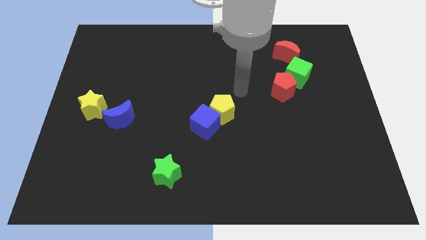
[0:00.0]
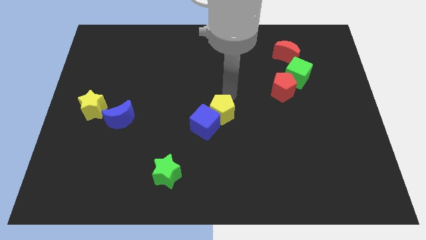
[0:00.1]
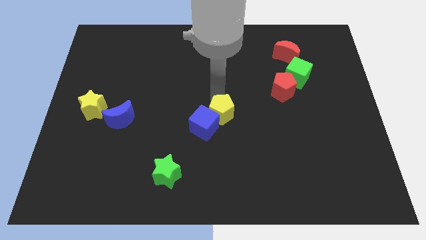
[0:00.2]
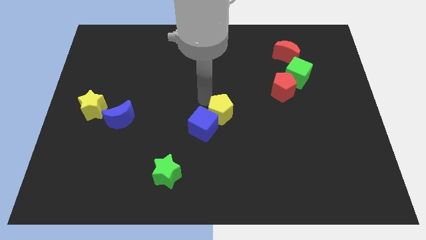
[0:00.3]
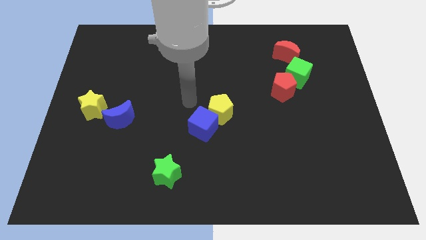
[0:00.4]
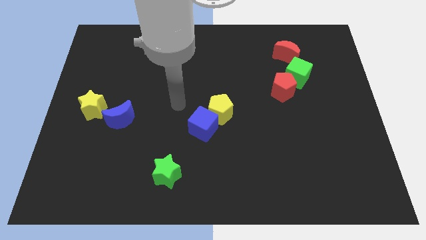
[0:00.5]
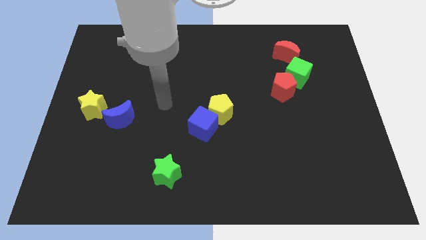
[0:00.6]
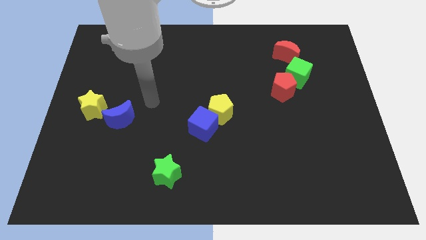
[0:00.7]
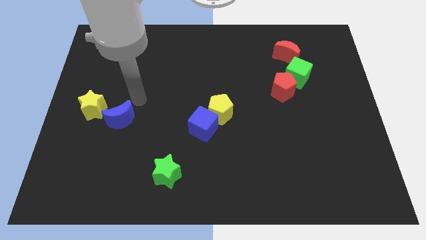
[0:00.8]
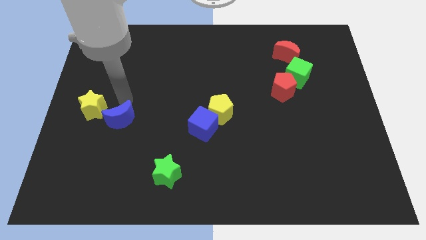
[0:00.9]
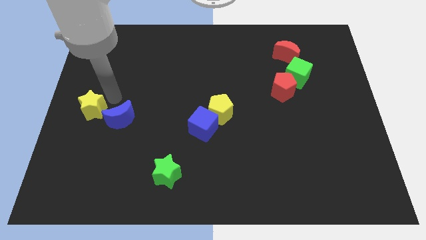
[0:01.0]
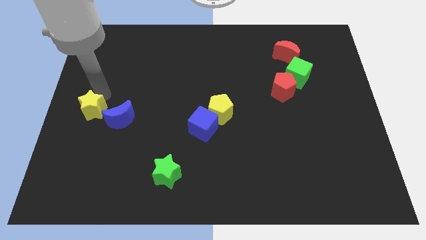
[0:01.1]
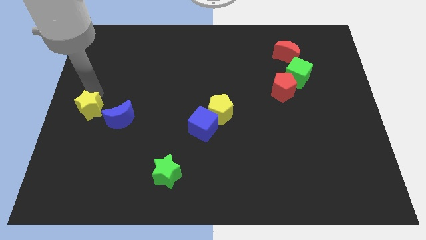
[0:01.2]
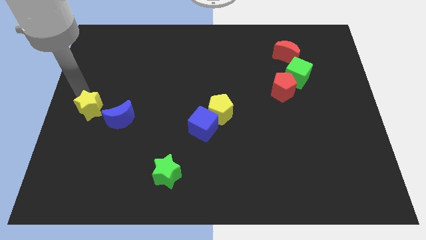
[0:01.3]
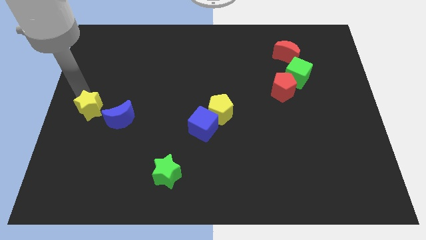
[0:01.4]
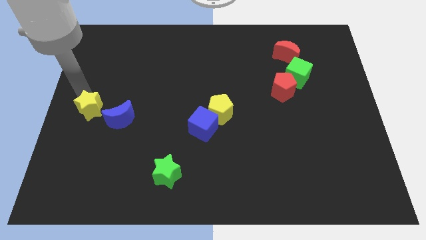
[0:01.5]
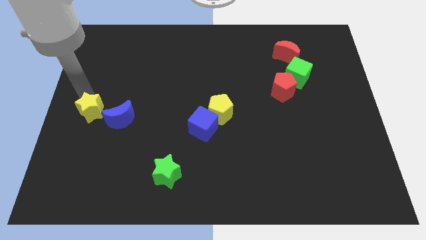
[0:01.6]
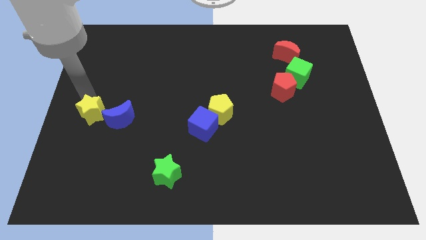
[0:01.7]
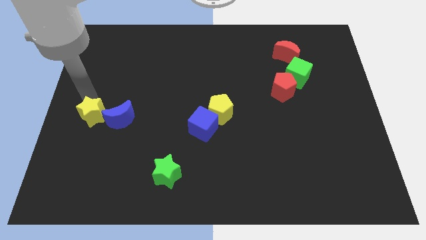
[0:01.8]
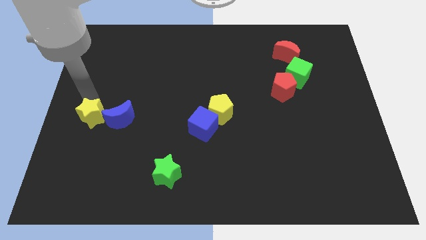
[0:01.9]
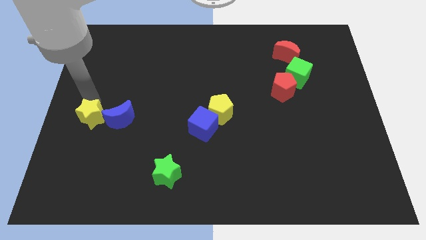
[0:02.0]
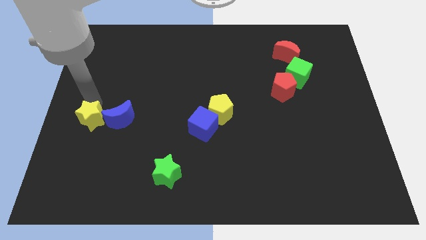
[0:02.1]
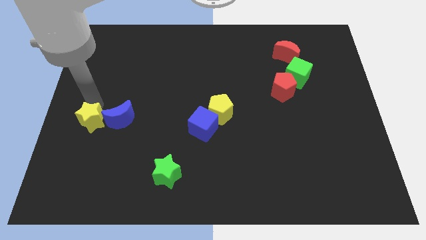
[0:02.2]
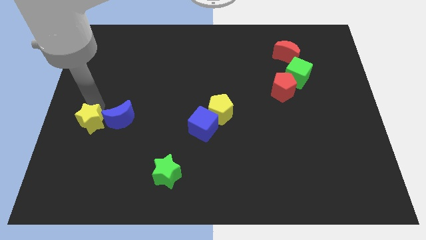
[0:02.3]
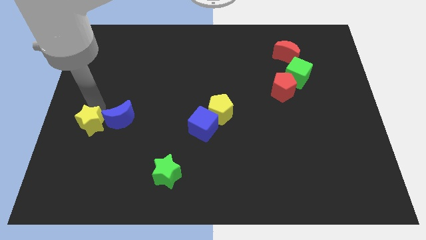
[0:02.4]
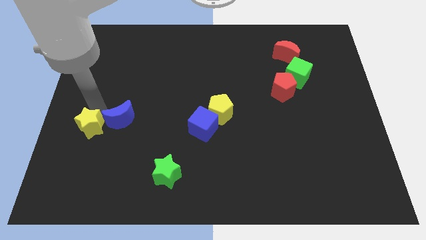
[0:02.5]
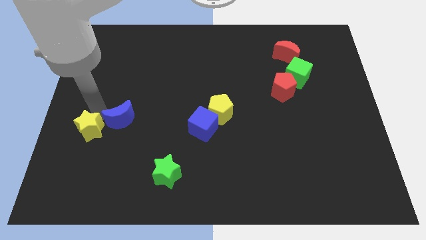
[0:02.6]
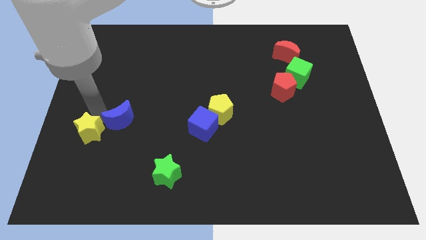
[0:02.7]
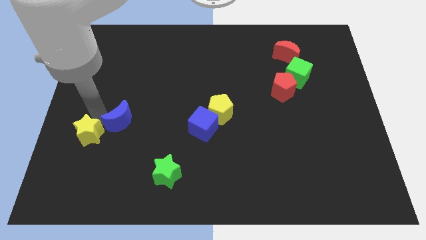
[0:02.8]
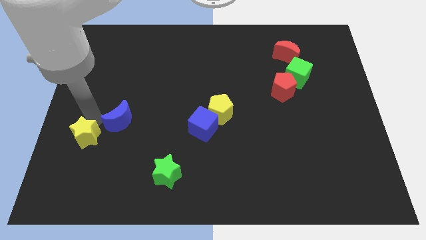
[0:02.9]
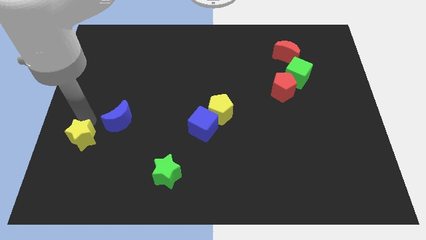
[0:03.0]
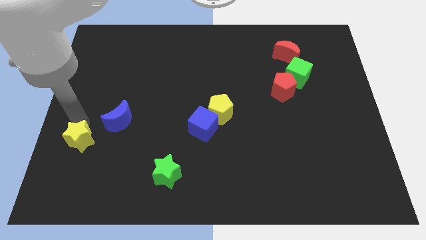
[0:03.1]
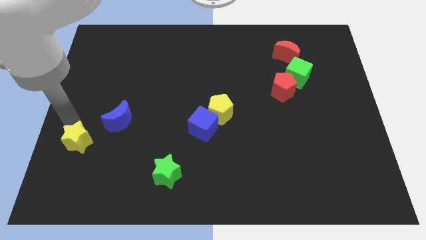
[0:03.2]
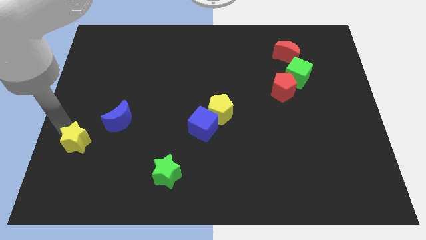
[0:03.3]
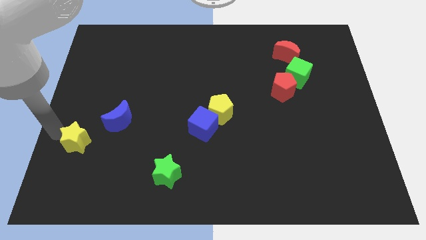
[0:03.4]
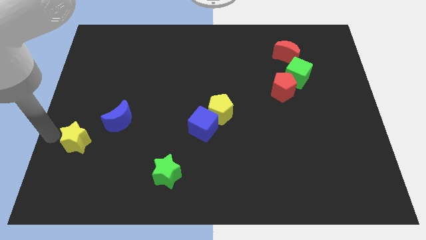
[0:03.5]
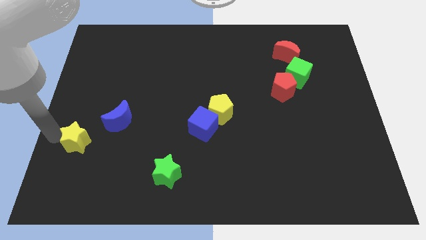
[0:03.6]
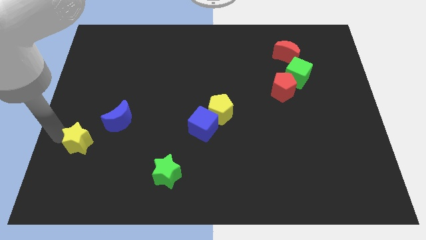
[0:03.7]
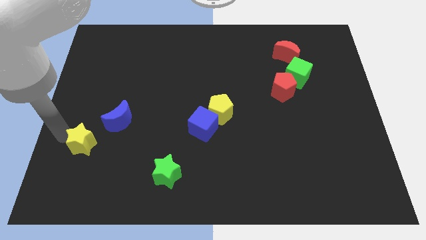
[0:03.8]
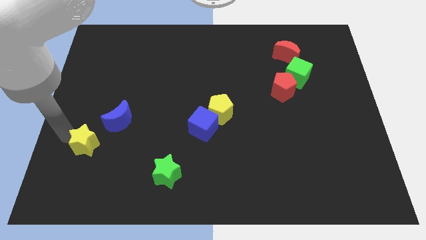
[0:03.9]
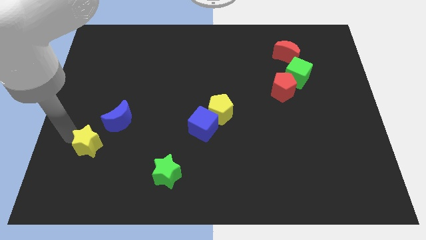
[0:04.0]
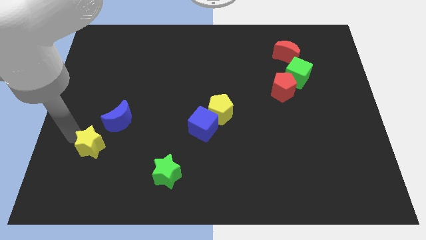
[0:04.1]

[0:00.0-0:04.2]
move the yellow star slightly down and right diagonally

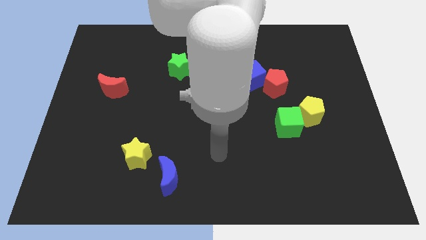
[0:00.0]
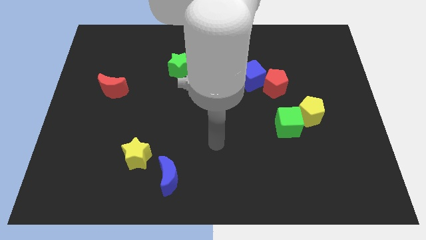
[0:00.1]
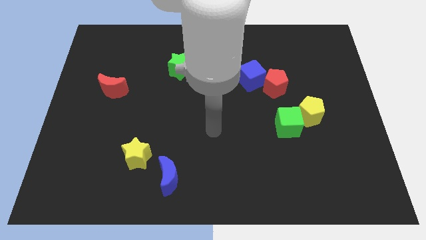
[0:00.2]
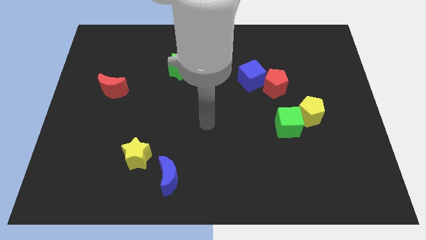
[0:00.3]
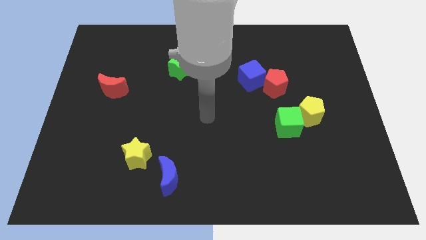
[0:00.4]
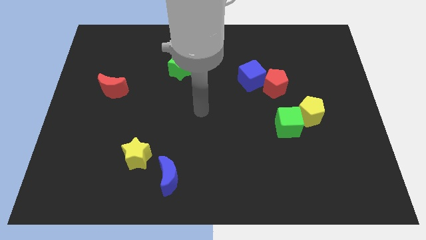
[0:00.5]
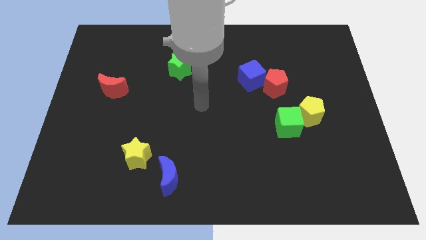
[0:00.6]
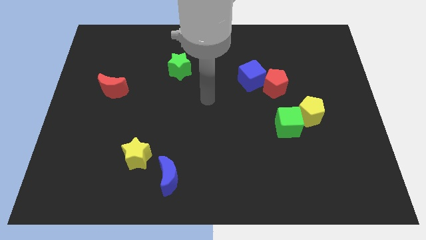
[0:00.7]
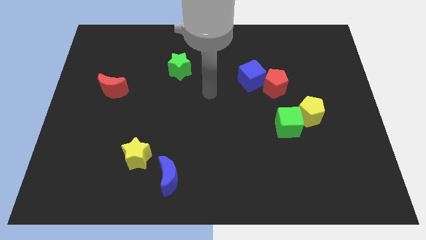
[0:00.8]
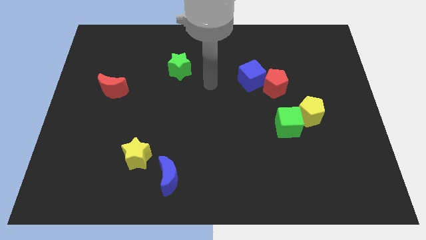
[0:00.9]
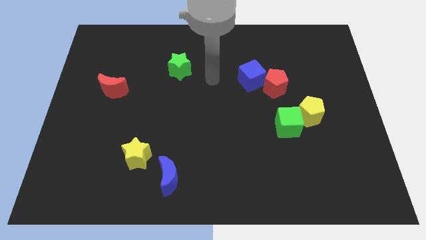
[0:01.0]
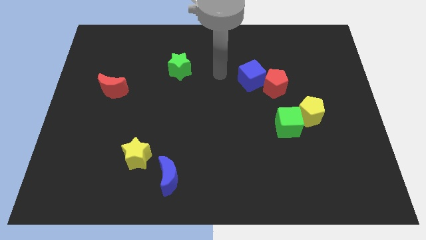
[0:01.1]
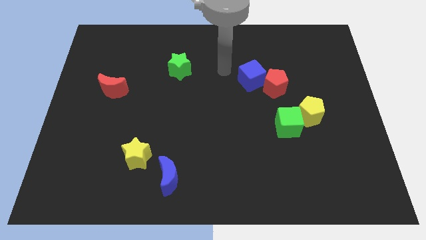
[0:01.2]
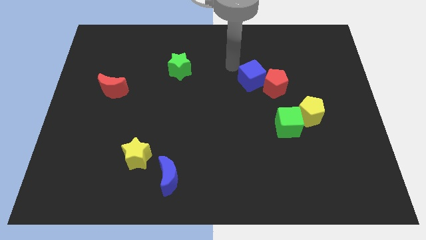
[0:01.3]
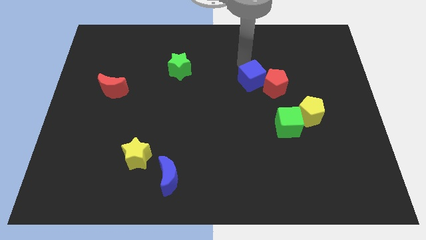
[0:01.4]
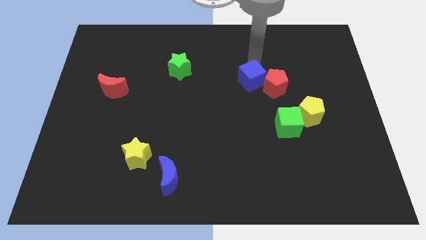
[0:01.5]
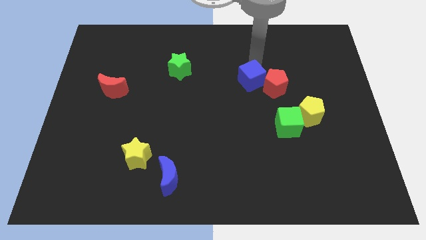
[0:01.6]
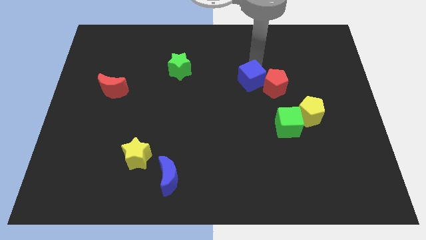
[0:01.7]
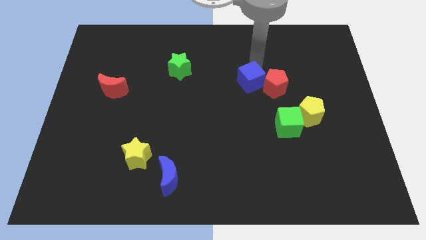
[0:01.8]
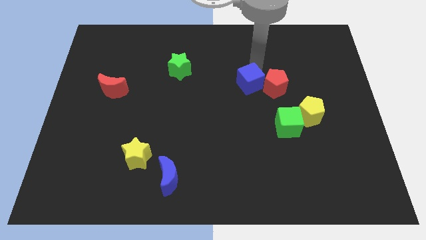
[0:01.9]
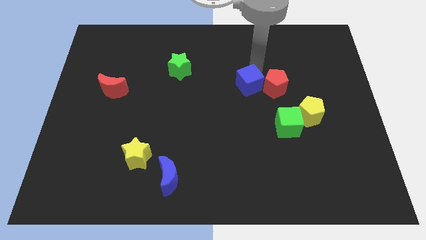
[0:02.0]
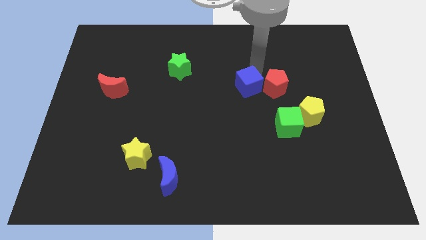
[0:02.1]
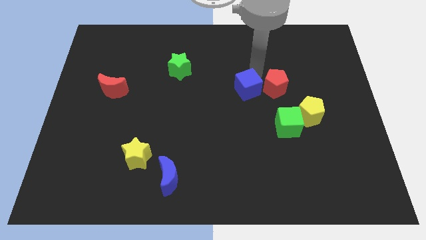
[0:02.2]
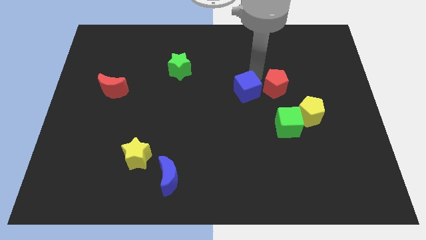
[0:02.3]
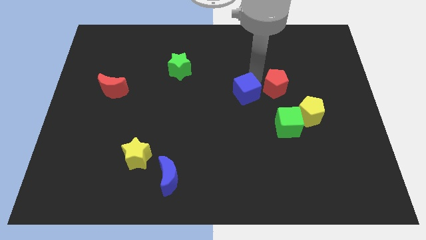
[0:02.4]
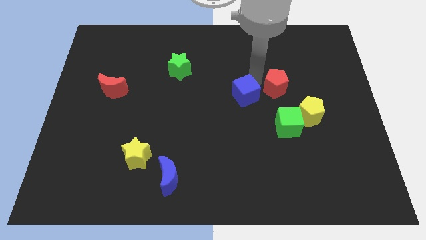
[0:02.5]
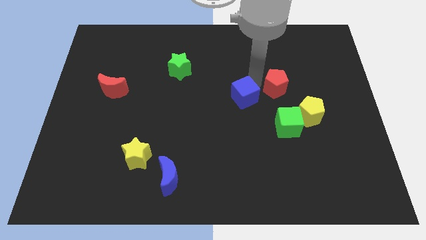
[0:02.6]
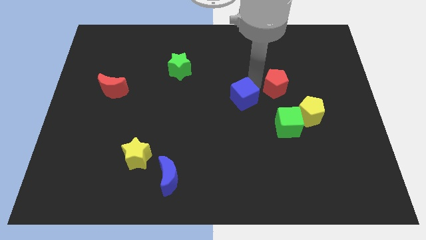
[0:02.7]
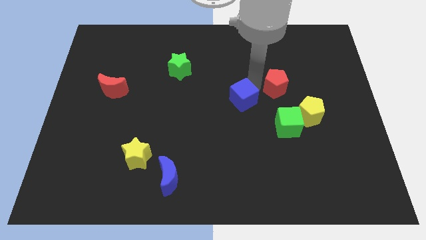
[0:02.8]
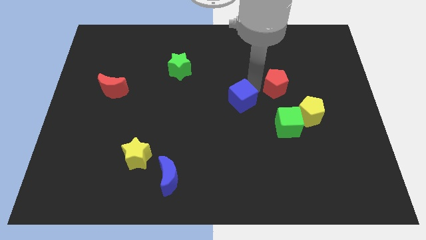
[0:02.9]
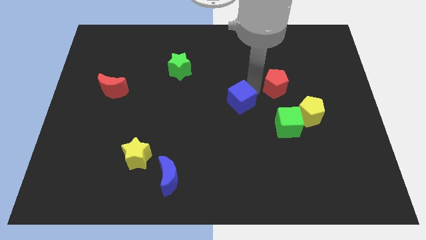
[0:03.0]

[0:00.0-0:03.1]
move the blue cube a bit downwards

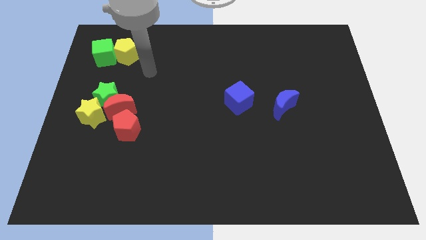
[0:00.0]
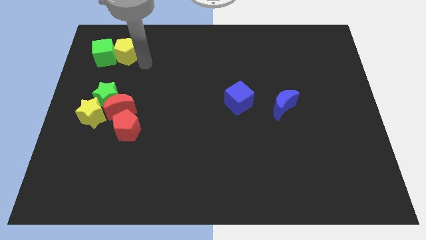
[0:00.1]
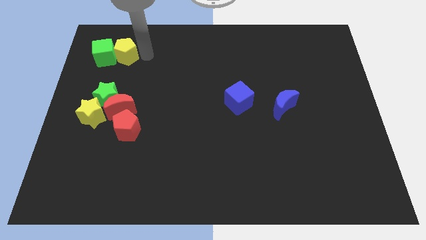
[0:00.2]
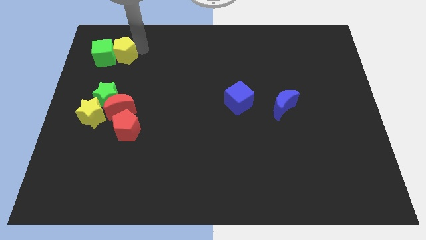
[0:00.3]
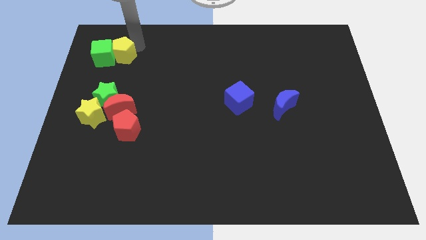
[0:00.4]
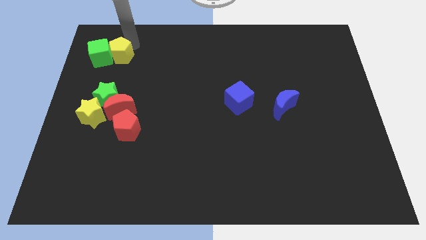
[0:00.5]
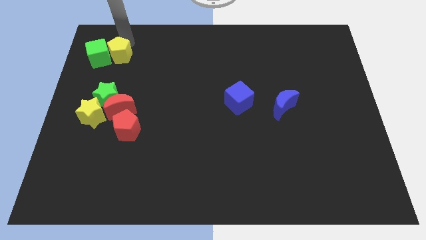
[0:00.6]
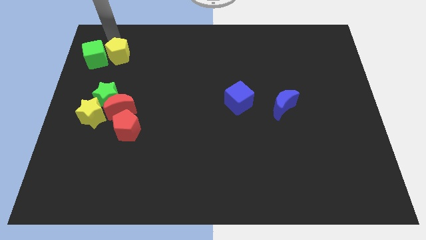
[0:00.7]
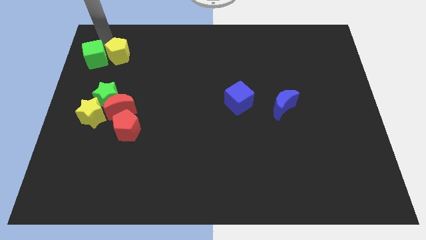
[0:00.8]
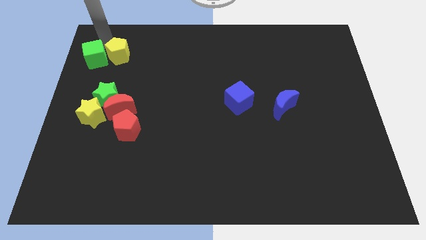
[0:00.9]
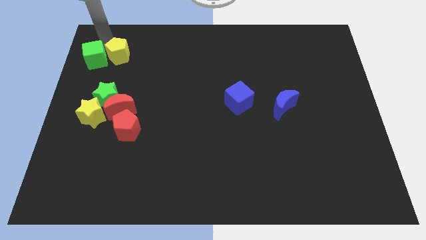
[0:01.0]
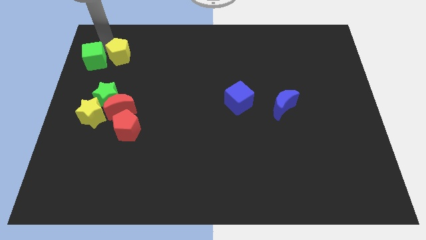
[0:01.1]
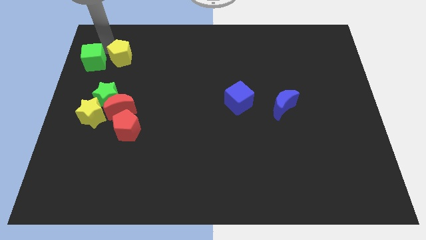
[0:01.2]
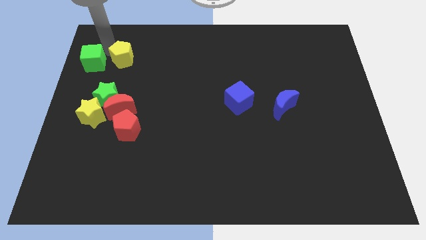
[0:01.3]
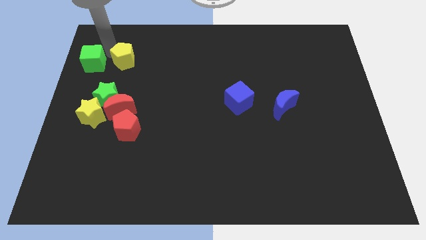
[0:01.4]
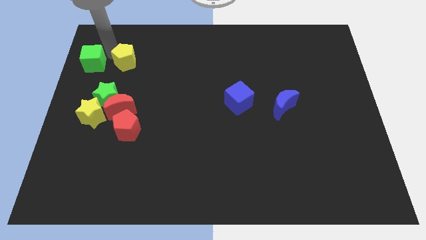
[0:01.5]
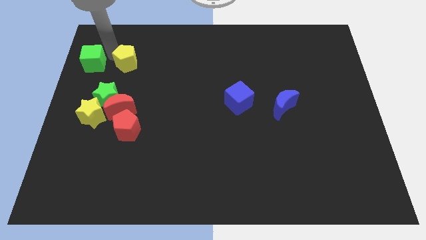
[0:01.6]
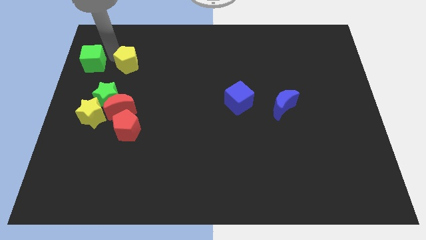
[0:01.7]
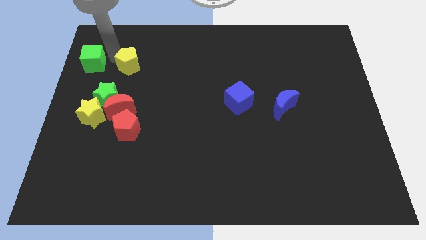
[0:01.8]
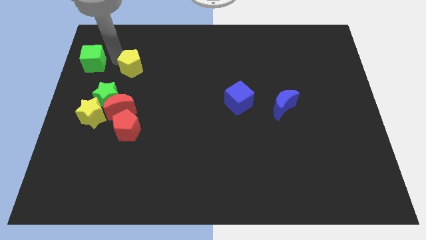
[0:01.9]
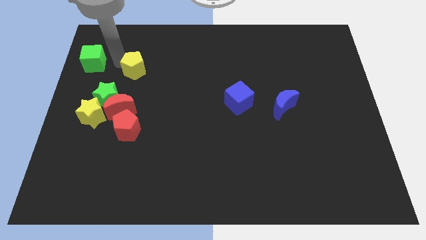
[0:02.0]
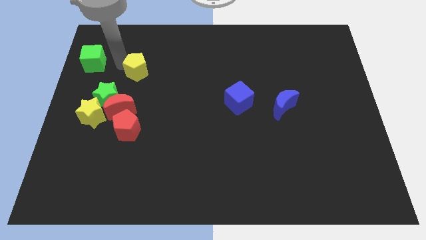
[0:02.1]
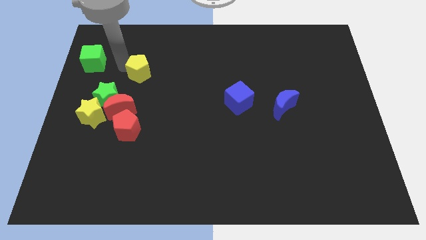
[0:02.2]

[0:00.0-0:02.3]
move the yellow pentagon diagonally down and right somewhat
